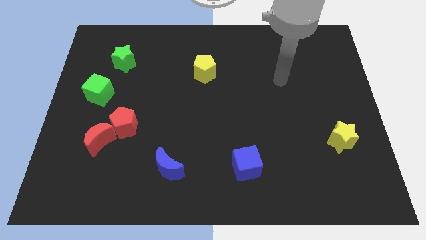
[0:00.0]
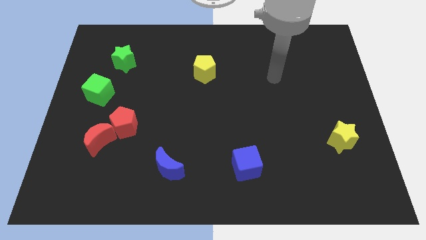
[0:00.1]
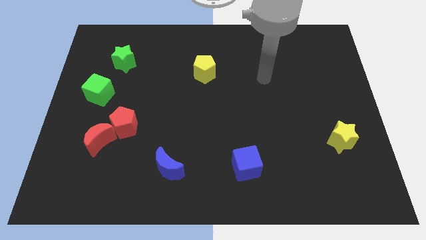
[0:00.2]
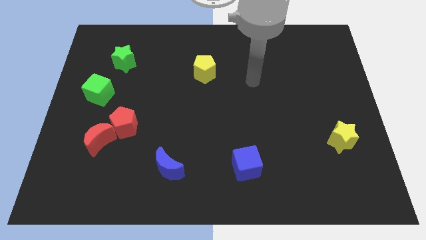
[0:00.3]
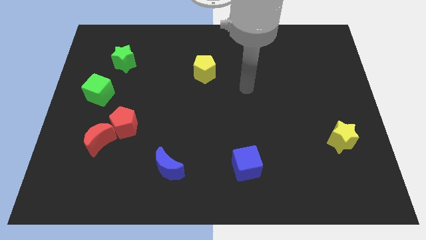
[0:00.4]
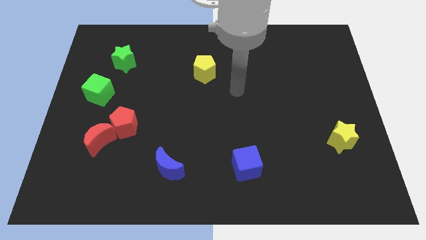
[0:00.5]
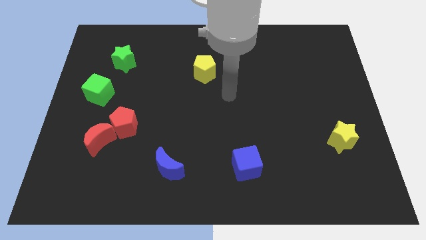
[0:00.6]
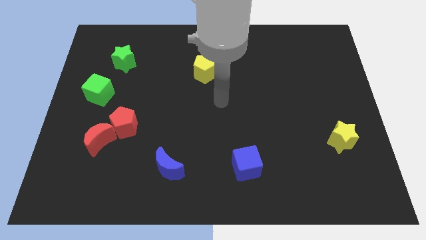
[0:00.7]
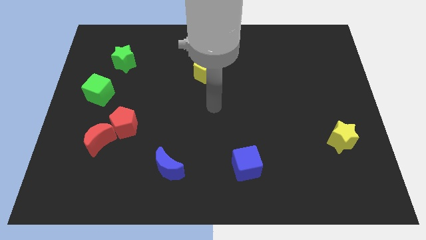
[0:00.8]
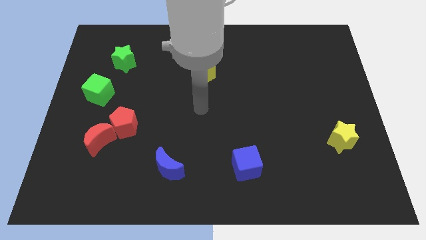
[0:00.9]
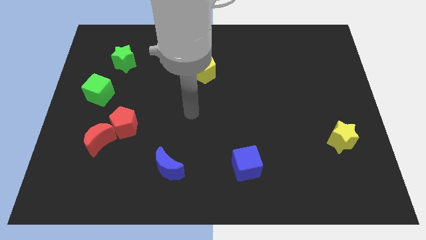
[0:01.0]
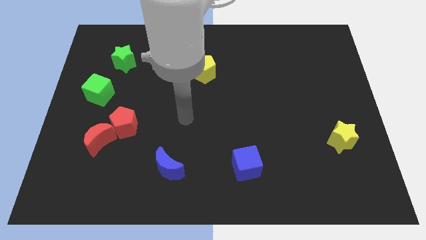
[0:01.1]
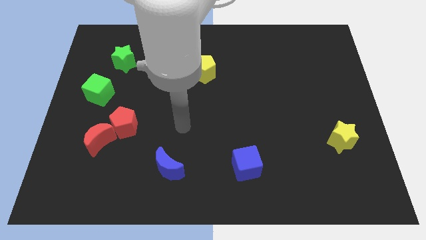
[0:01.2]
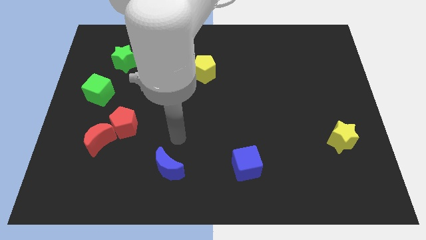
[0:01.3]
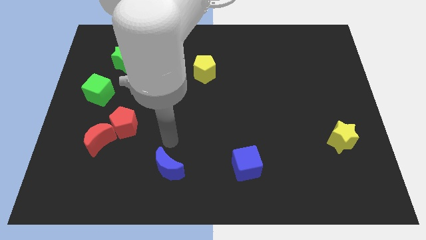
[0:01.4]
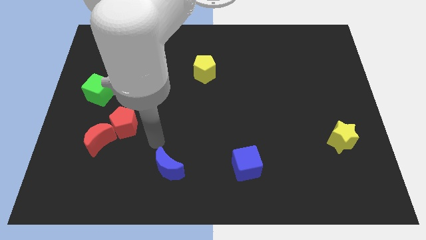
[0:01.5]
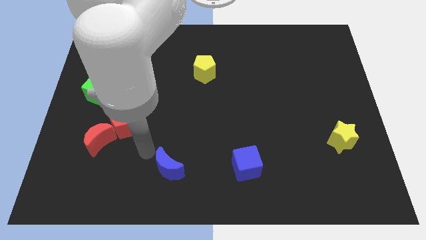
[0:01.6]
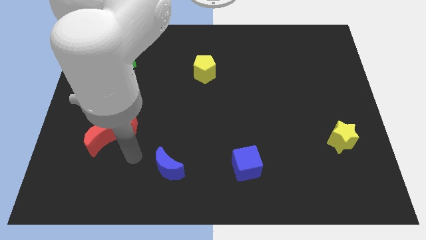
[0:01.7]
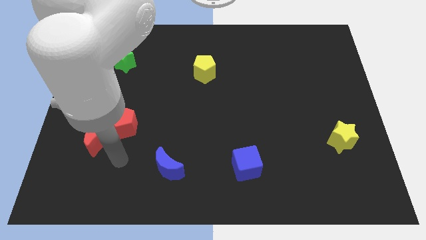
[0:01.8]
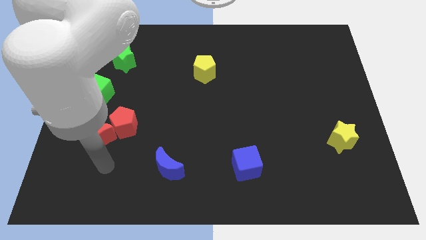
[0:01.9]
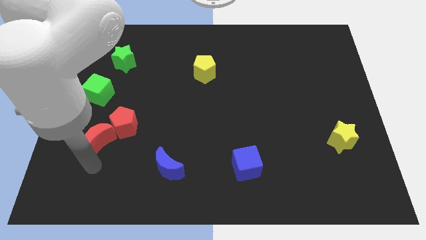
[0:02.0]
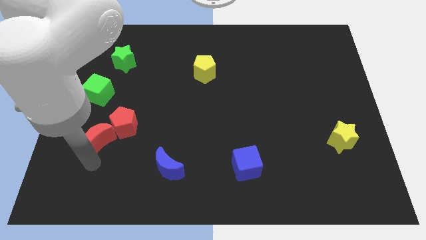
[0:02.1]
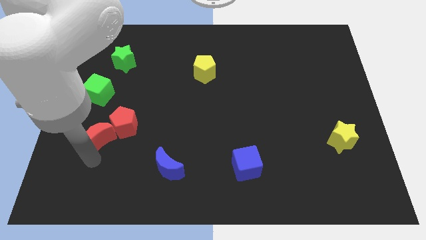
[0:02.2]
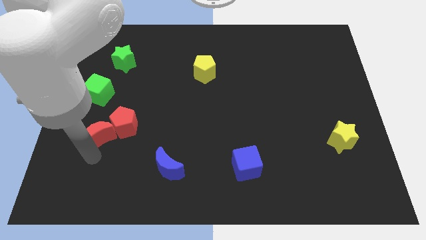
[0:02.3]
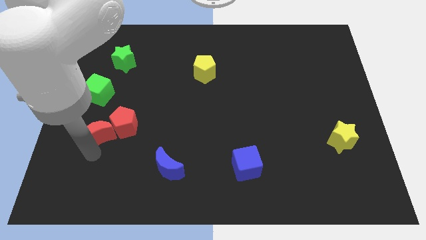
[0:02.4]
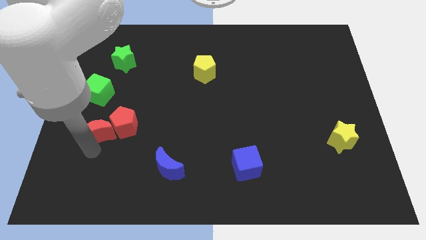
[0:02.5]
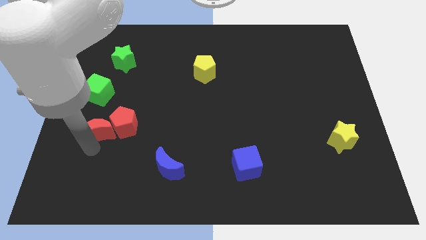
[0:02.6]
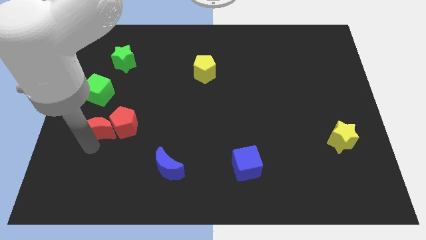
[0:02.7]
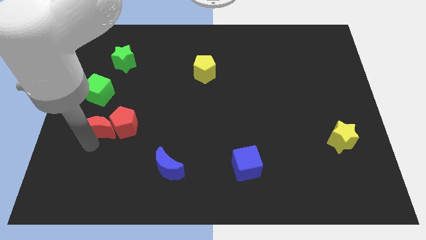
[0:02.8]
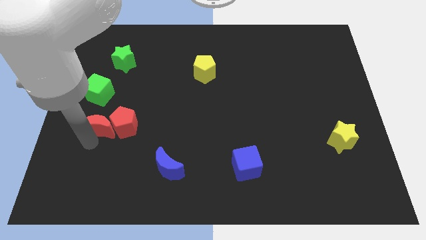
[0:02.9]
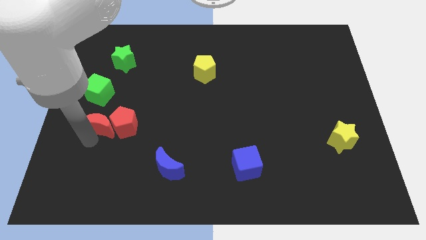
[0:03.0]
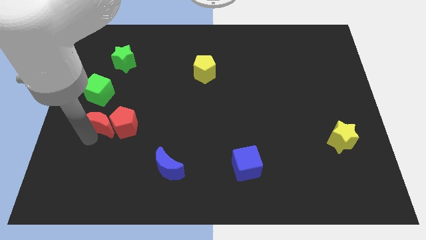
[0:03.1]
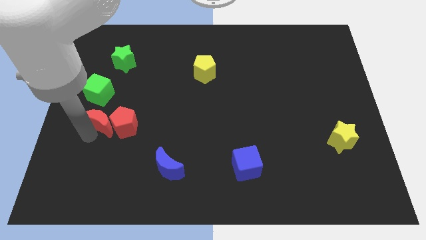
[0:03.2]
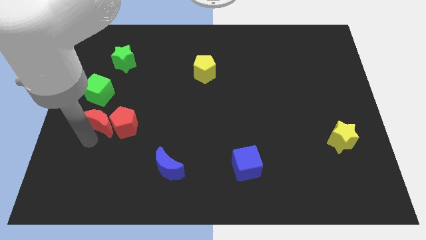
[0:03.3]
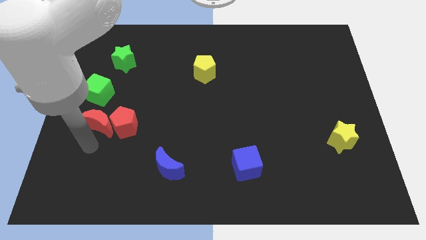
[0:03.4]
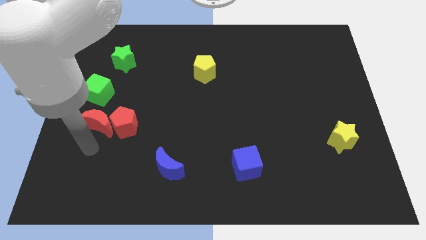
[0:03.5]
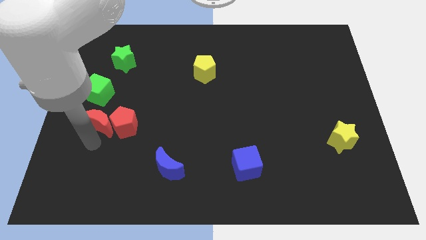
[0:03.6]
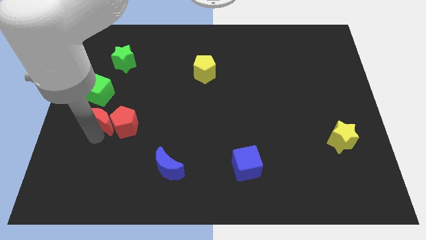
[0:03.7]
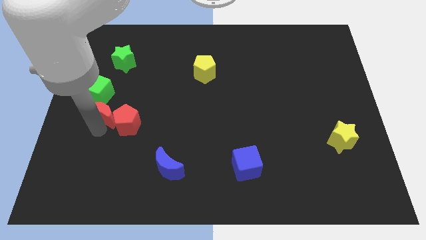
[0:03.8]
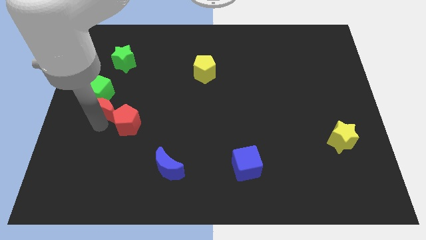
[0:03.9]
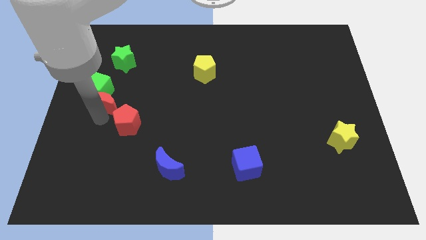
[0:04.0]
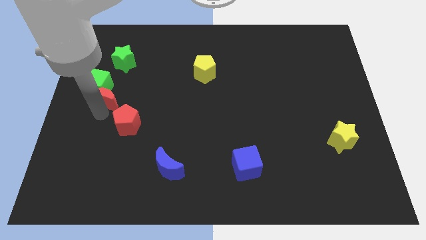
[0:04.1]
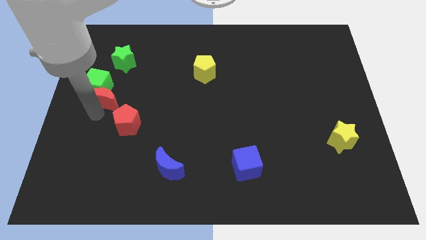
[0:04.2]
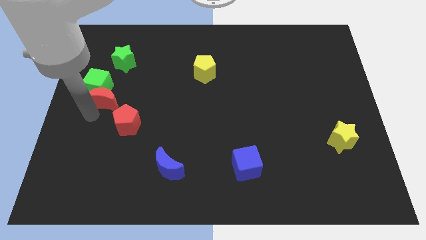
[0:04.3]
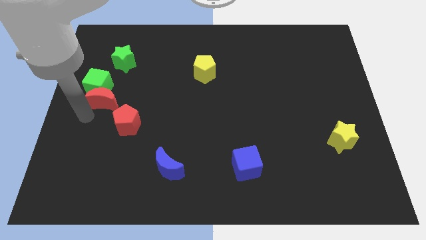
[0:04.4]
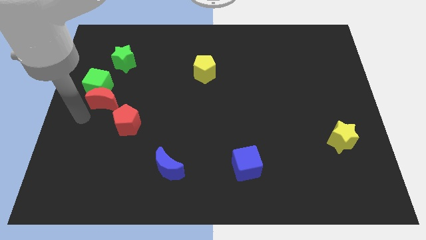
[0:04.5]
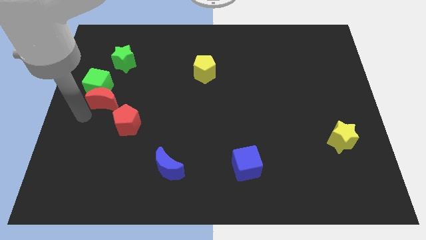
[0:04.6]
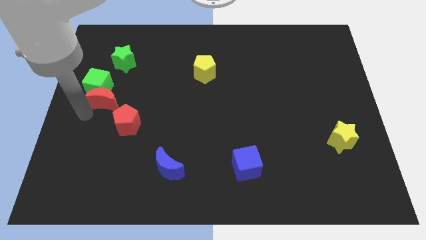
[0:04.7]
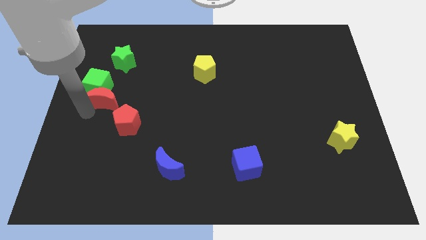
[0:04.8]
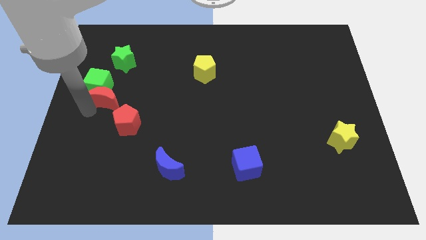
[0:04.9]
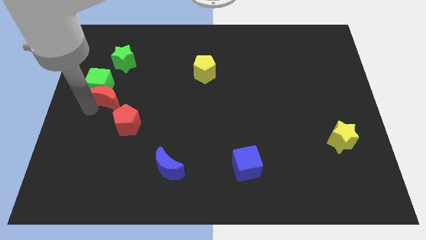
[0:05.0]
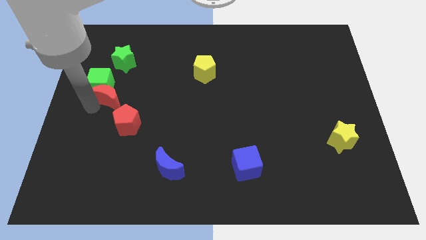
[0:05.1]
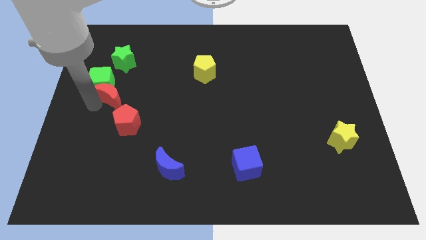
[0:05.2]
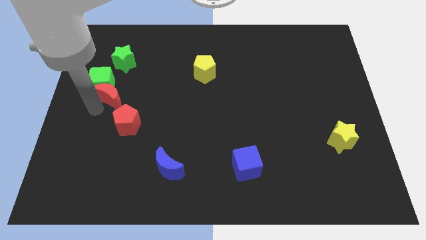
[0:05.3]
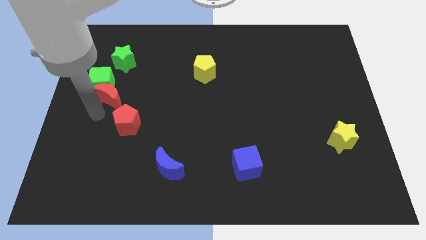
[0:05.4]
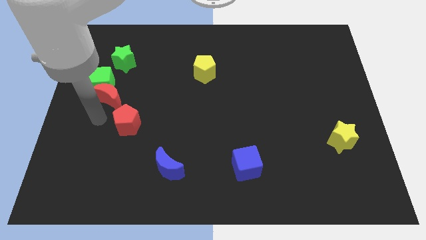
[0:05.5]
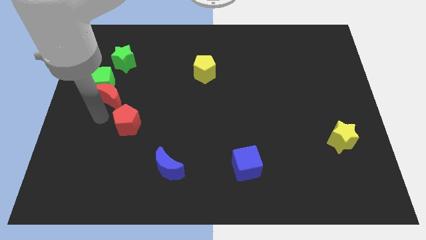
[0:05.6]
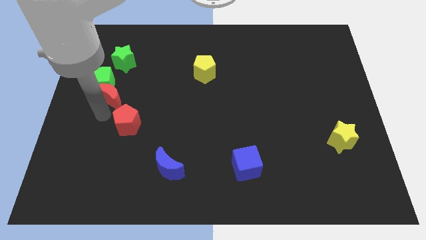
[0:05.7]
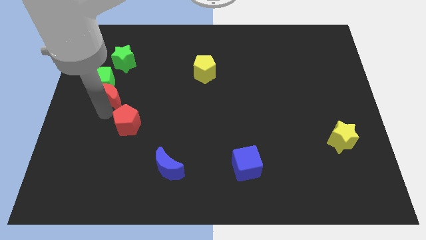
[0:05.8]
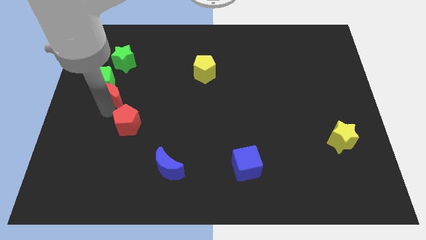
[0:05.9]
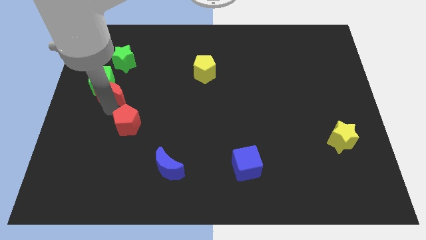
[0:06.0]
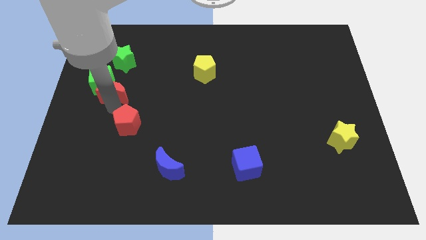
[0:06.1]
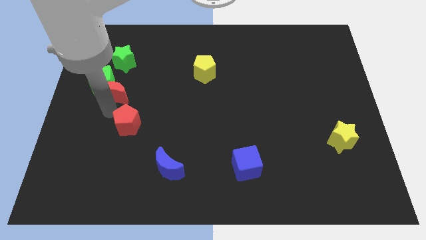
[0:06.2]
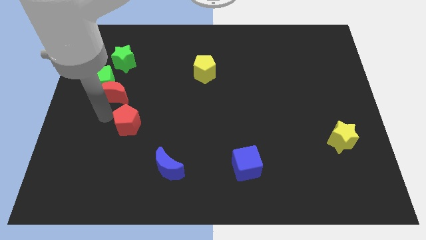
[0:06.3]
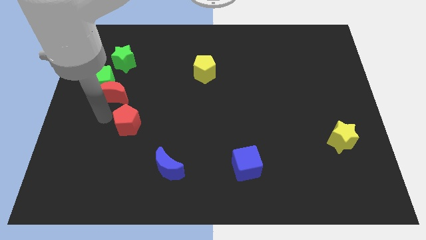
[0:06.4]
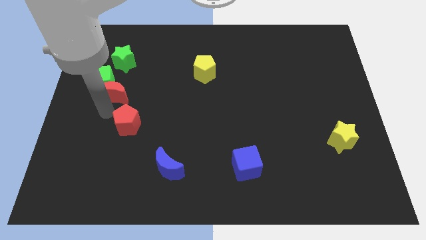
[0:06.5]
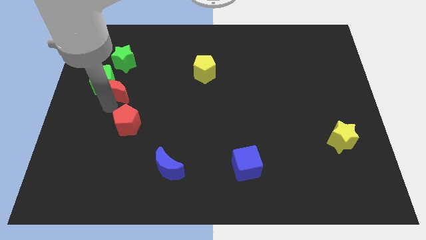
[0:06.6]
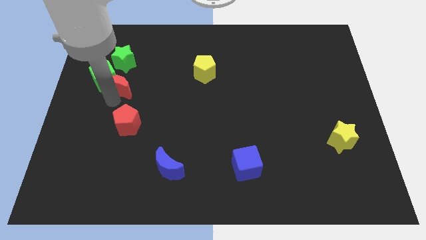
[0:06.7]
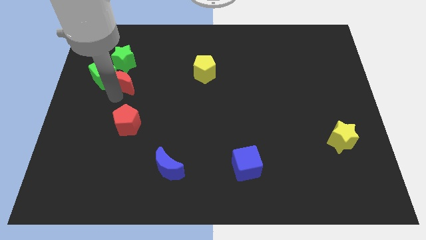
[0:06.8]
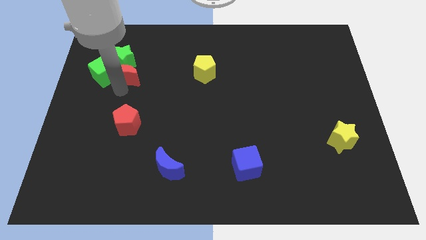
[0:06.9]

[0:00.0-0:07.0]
push the red moon to the green star
